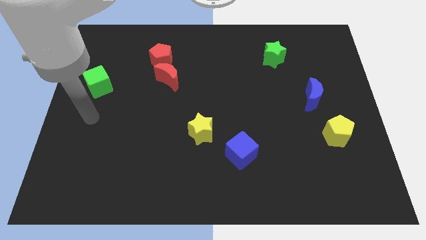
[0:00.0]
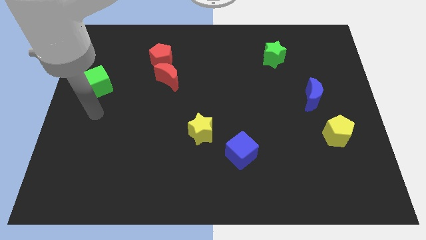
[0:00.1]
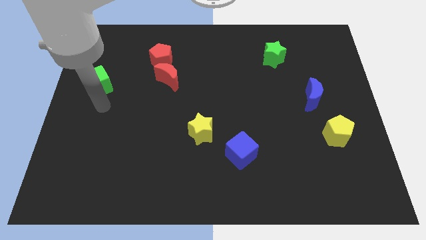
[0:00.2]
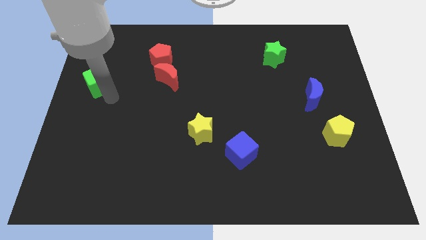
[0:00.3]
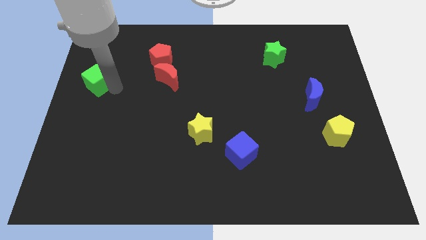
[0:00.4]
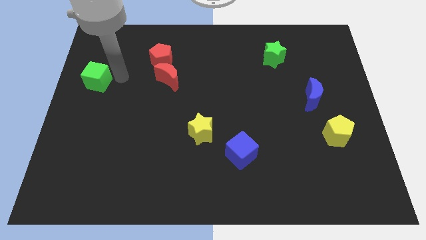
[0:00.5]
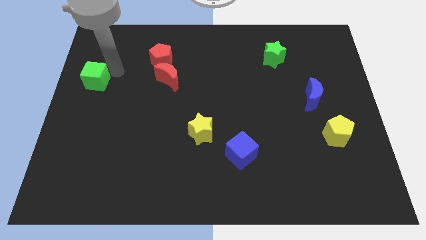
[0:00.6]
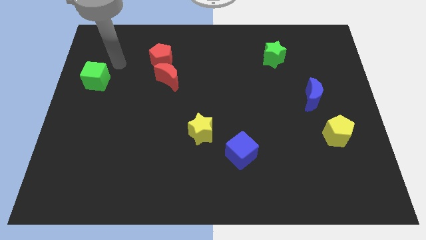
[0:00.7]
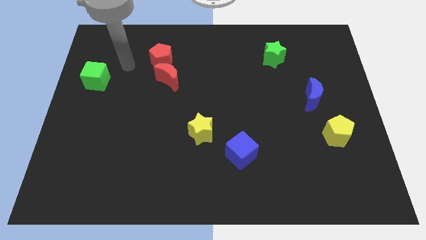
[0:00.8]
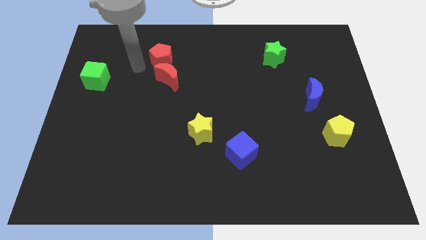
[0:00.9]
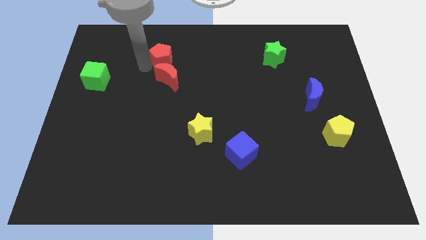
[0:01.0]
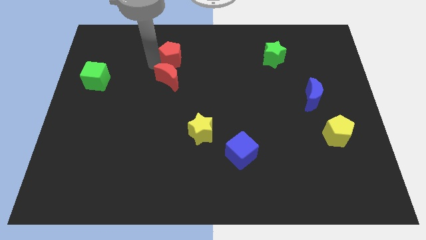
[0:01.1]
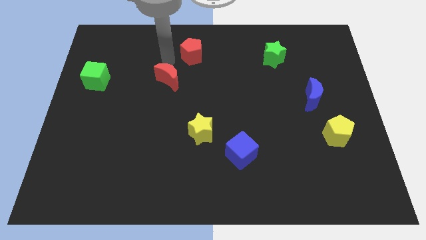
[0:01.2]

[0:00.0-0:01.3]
separate the red moon from the red pentagon

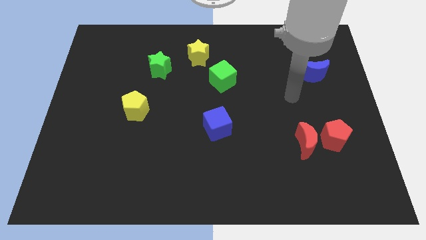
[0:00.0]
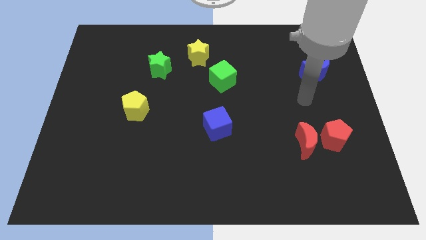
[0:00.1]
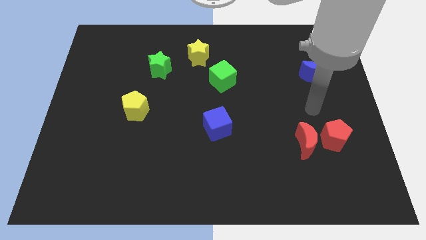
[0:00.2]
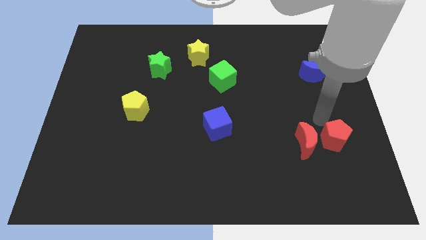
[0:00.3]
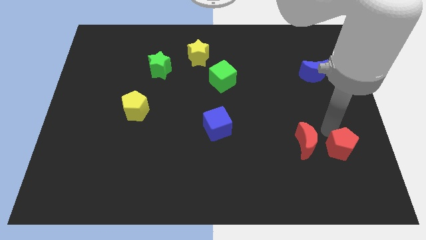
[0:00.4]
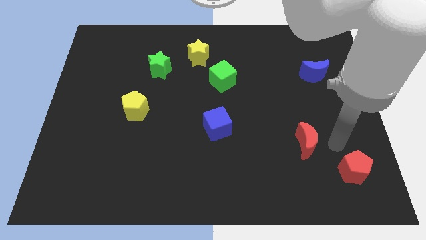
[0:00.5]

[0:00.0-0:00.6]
pull the red moon apart from the red pentagon

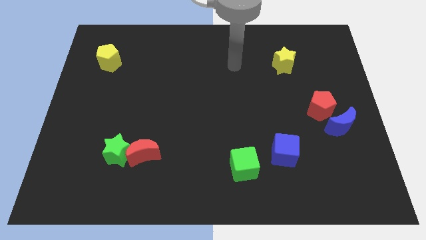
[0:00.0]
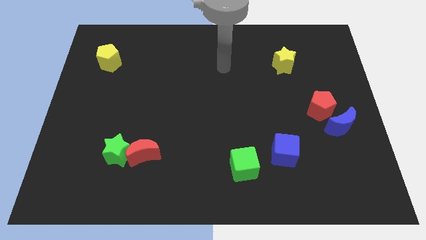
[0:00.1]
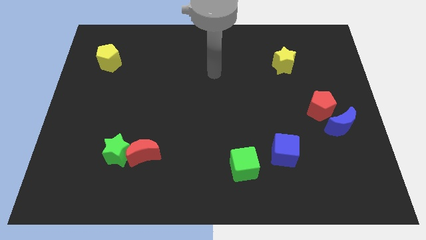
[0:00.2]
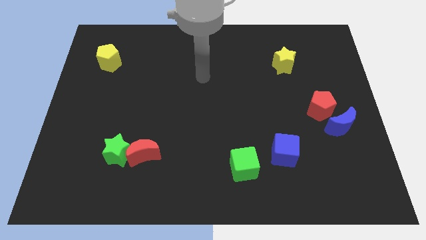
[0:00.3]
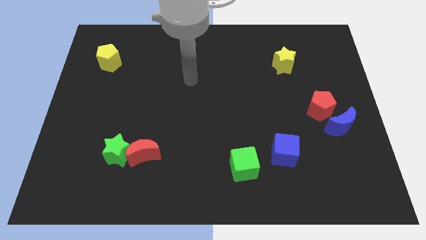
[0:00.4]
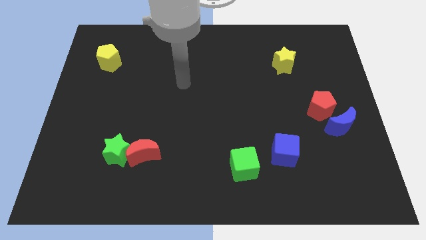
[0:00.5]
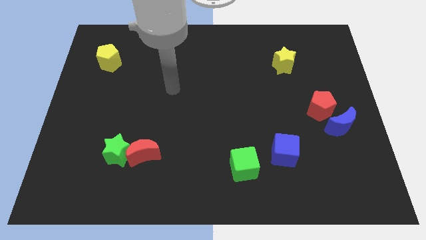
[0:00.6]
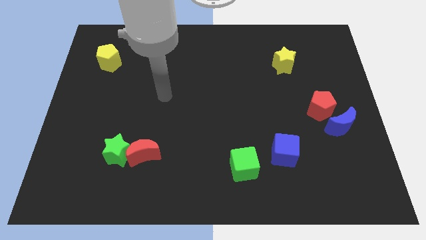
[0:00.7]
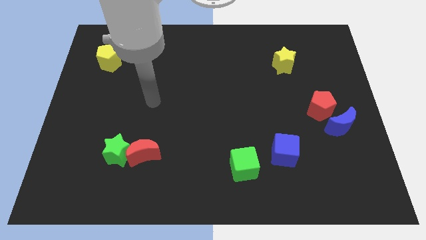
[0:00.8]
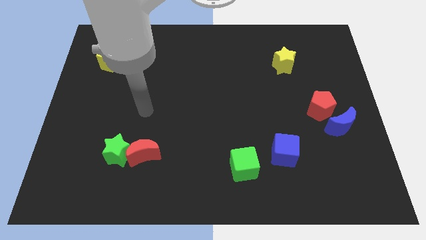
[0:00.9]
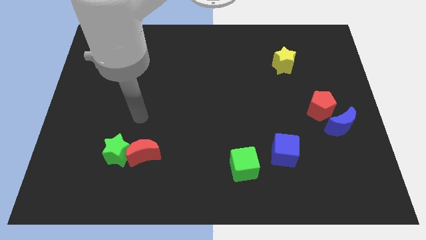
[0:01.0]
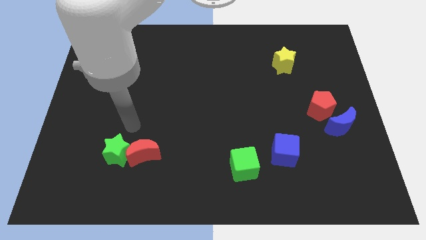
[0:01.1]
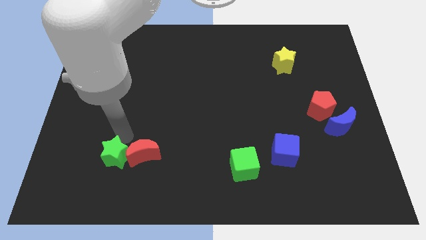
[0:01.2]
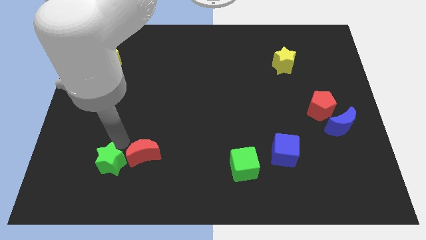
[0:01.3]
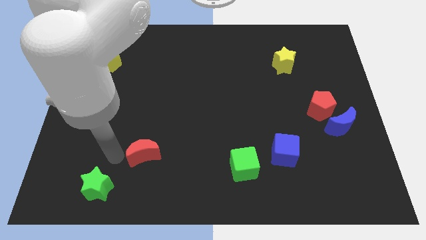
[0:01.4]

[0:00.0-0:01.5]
separate the red moon from the green star

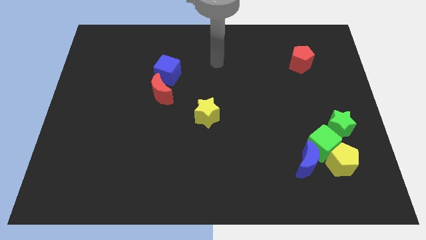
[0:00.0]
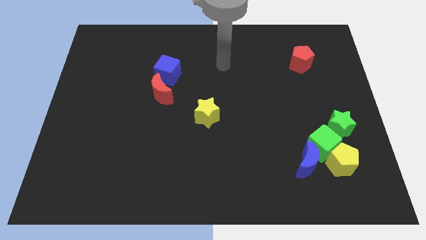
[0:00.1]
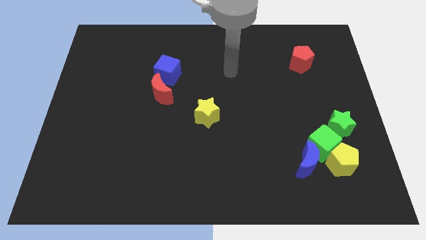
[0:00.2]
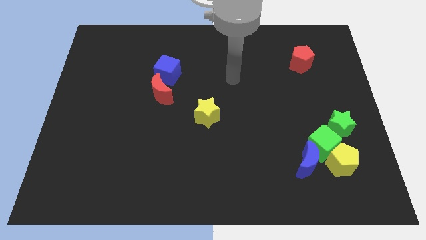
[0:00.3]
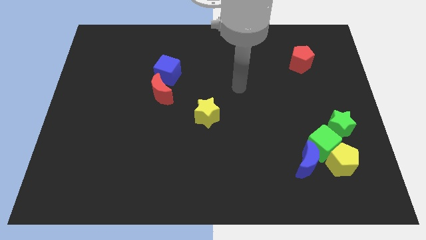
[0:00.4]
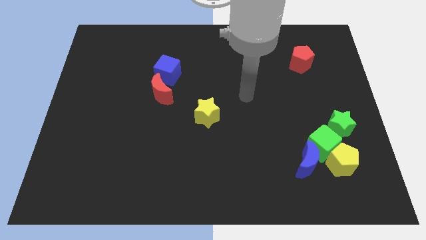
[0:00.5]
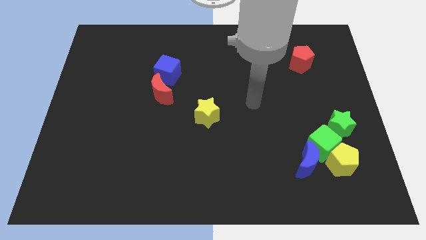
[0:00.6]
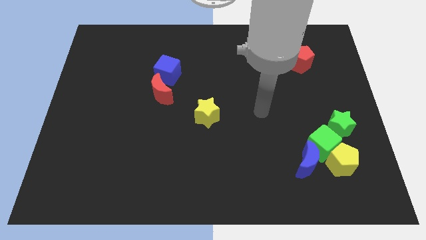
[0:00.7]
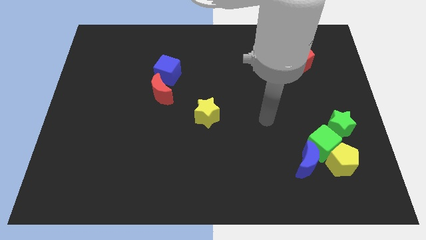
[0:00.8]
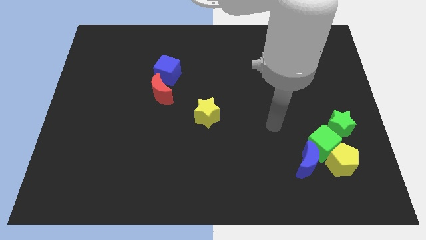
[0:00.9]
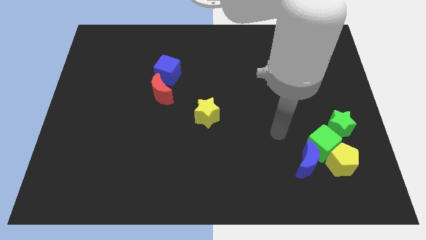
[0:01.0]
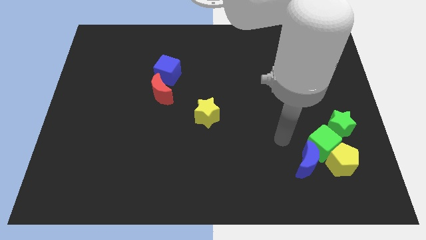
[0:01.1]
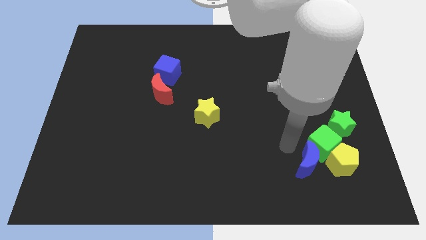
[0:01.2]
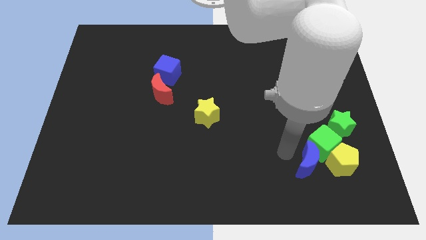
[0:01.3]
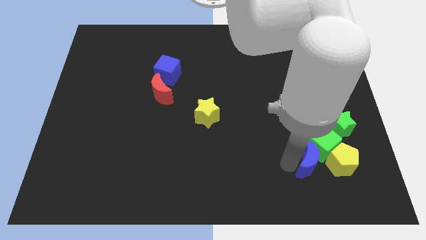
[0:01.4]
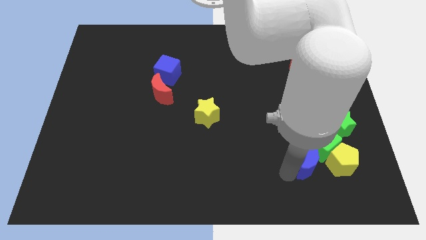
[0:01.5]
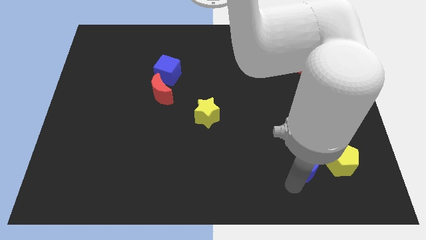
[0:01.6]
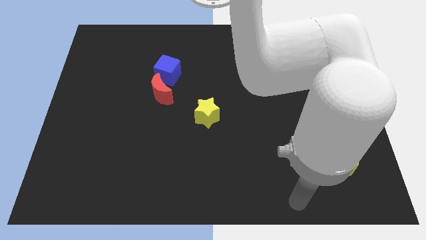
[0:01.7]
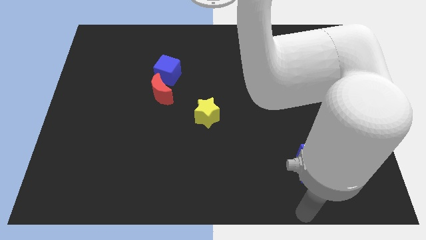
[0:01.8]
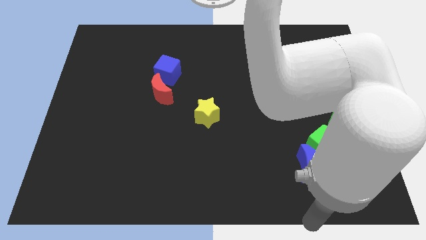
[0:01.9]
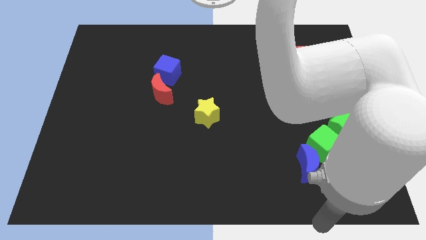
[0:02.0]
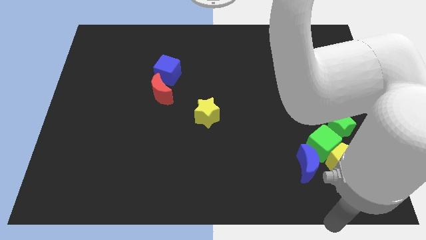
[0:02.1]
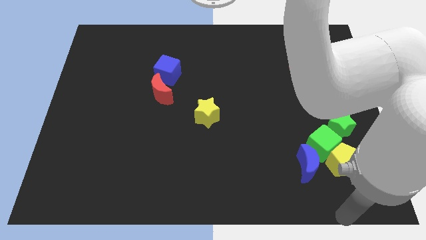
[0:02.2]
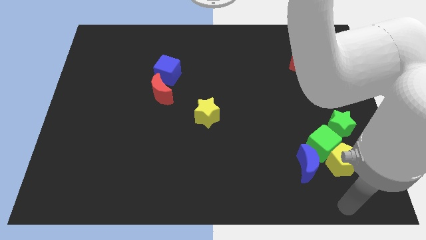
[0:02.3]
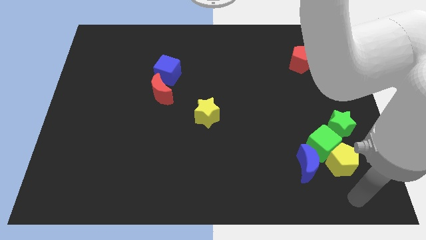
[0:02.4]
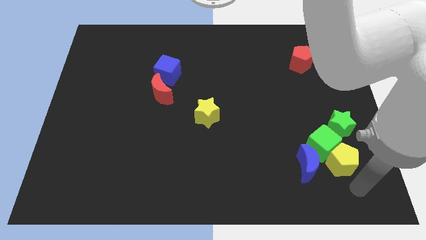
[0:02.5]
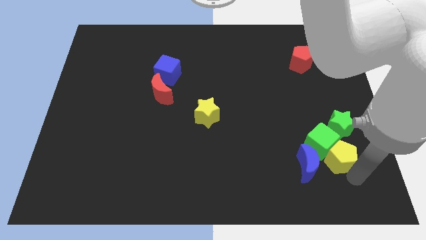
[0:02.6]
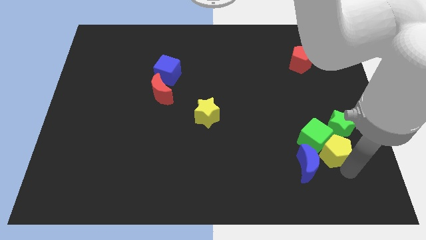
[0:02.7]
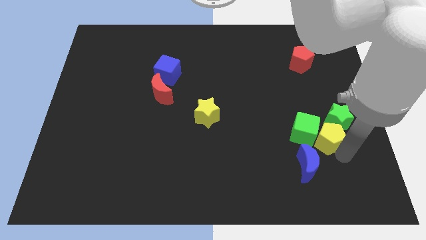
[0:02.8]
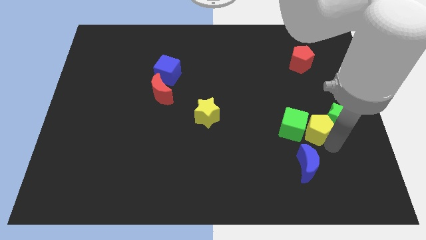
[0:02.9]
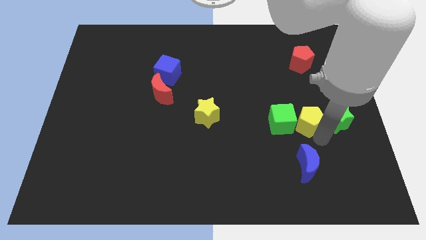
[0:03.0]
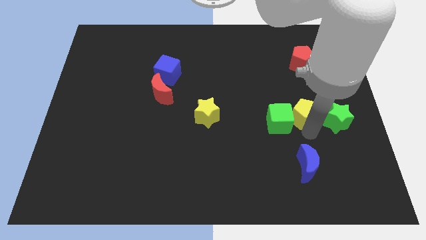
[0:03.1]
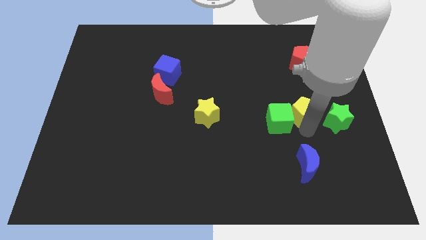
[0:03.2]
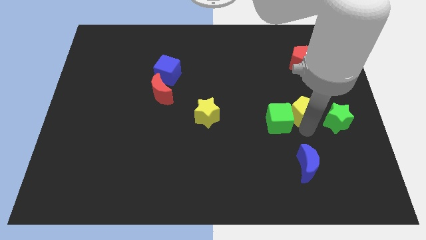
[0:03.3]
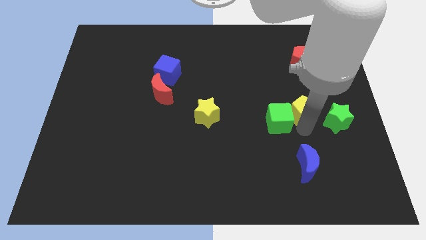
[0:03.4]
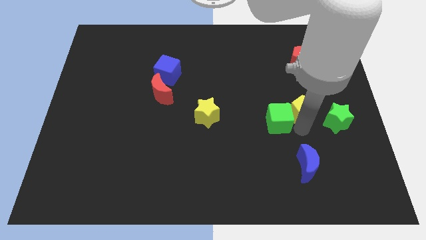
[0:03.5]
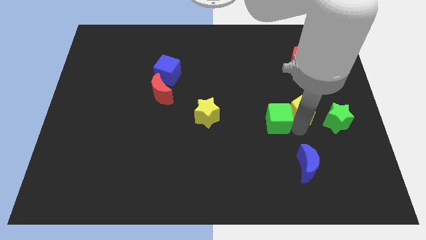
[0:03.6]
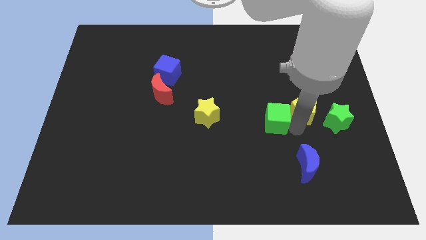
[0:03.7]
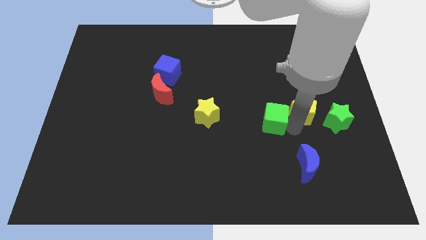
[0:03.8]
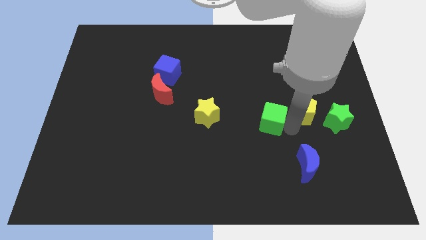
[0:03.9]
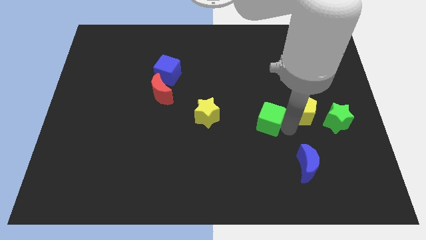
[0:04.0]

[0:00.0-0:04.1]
separate the green cube from the group of blocks

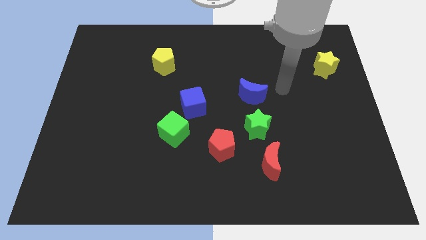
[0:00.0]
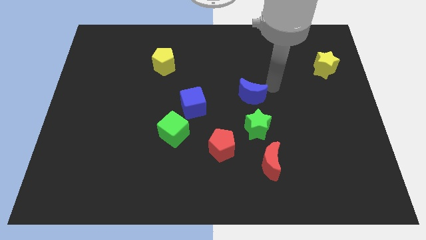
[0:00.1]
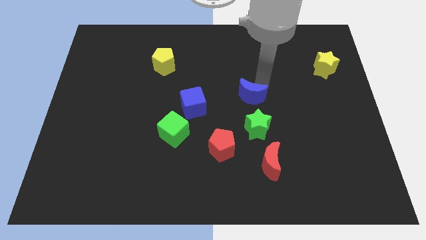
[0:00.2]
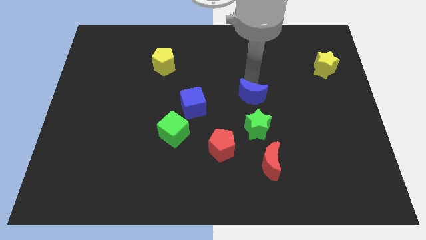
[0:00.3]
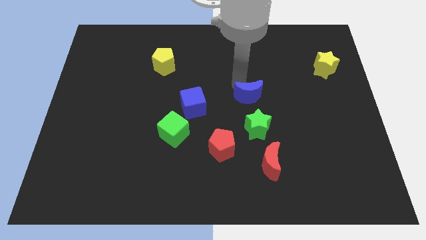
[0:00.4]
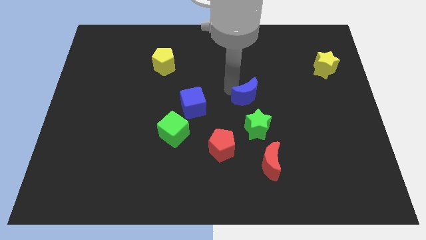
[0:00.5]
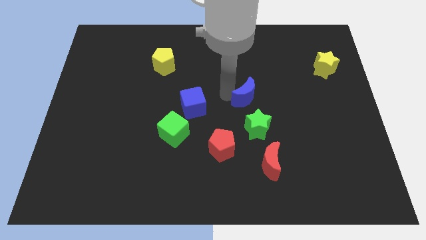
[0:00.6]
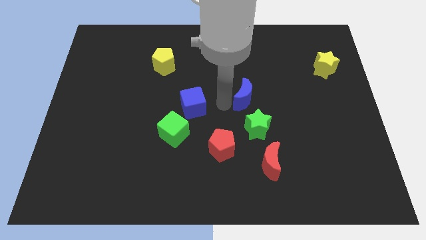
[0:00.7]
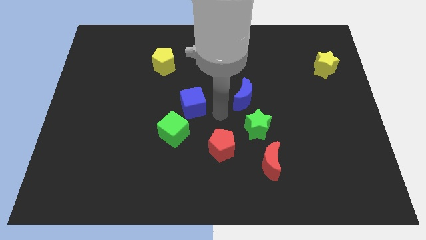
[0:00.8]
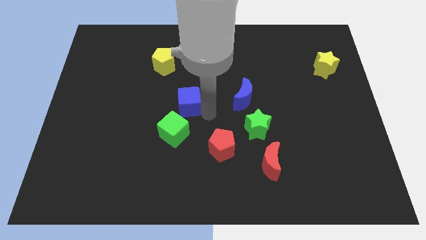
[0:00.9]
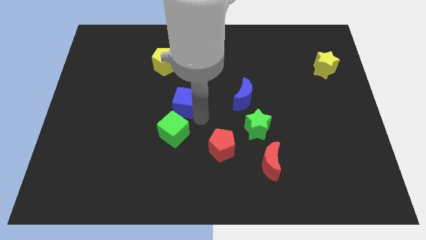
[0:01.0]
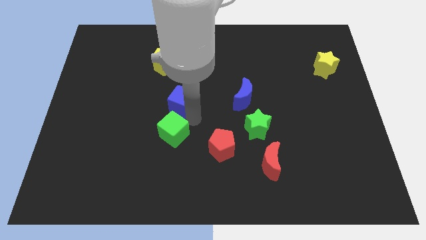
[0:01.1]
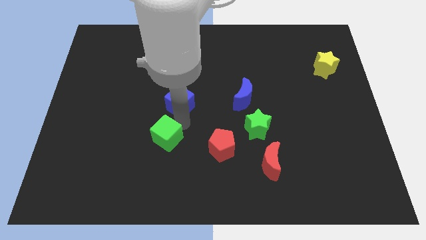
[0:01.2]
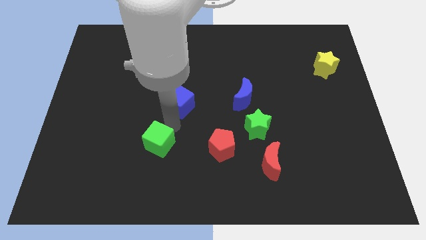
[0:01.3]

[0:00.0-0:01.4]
pull the blue cube apart from the green cube

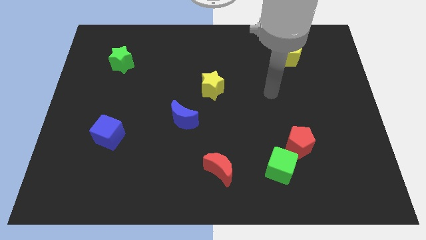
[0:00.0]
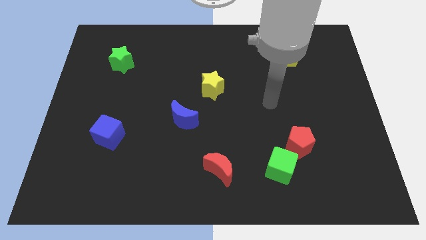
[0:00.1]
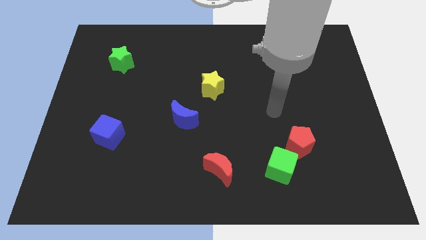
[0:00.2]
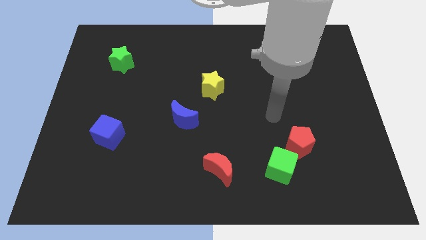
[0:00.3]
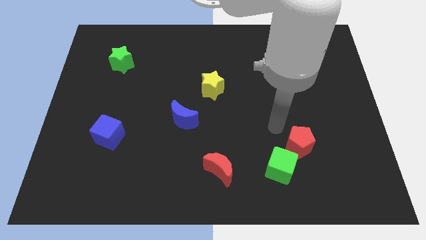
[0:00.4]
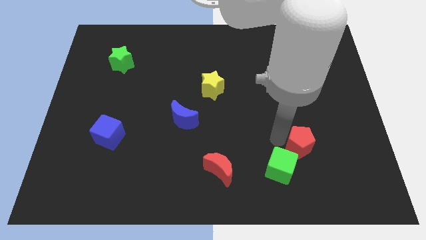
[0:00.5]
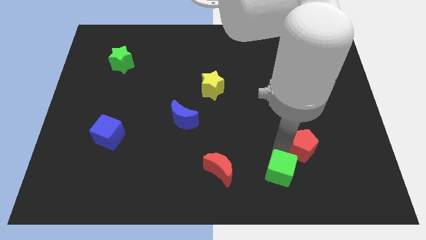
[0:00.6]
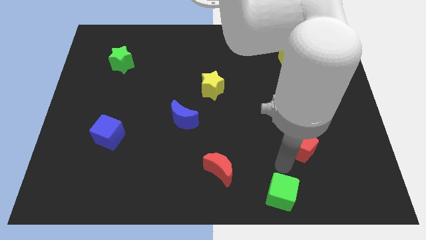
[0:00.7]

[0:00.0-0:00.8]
move the red pentagon away from the green cube
